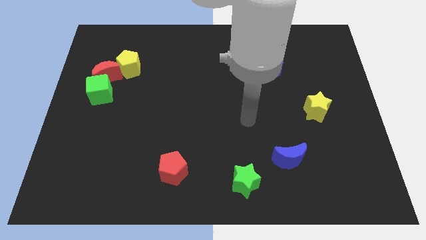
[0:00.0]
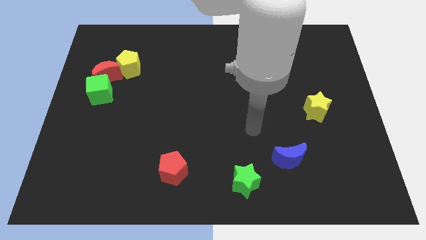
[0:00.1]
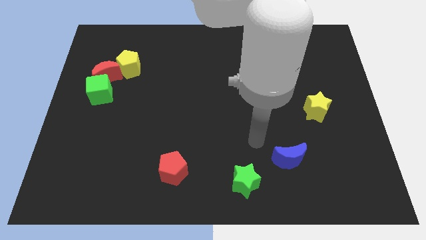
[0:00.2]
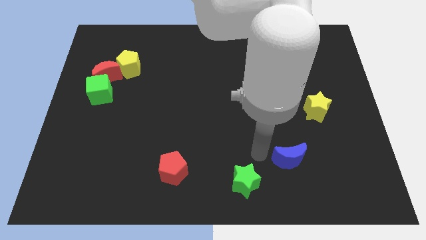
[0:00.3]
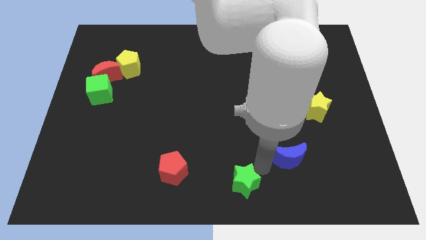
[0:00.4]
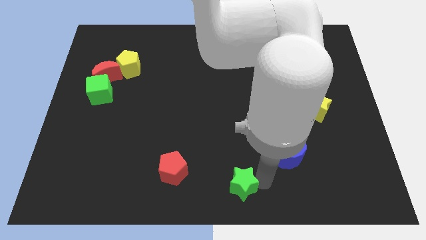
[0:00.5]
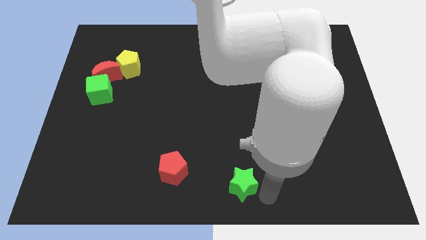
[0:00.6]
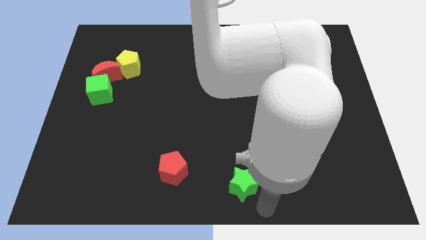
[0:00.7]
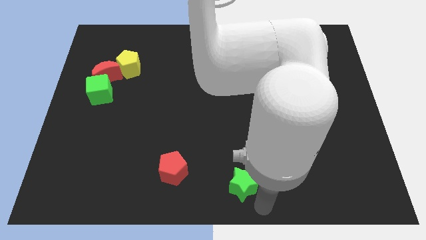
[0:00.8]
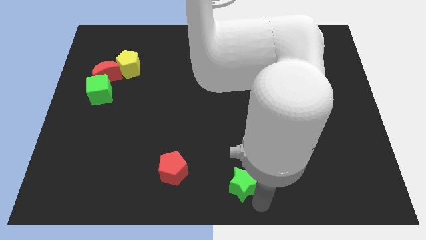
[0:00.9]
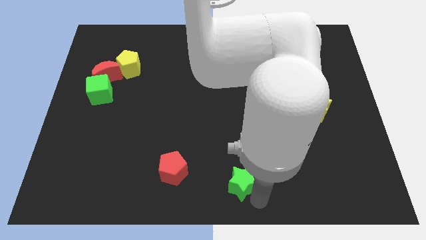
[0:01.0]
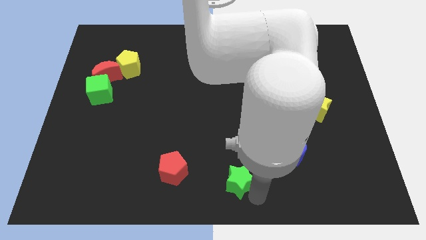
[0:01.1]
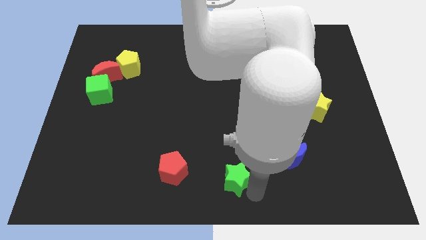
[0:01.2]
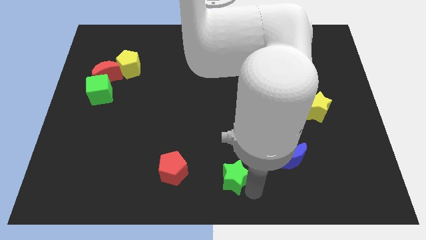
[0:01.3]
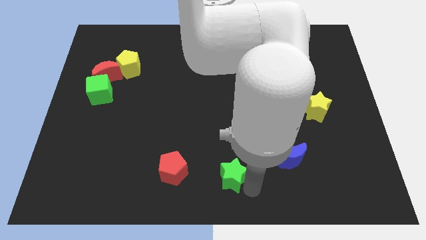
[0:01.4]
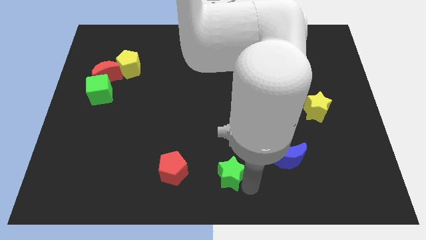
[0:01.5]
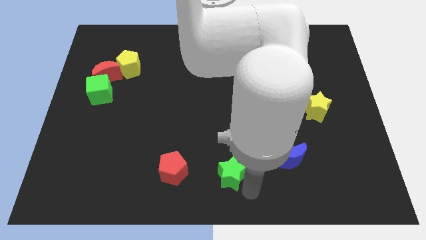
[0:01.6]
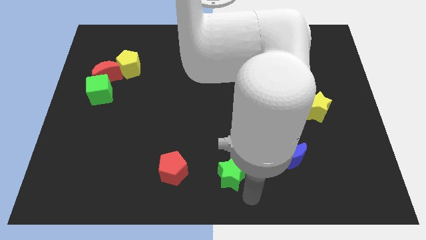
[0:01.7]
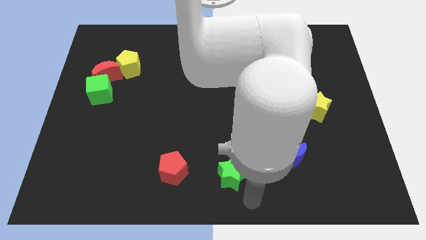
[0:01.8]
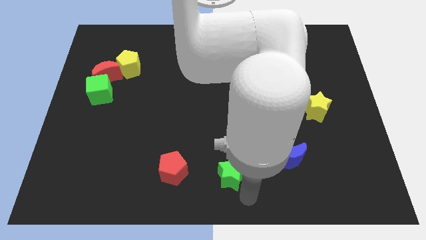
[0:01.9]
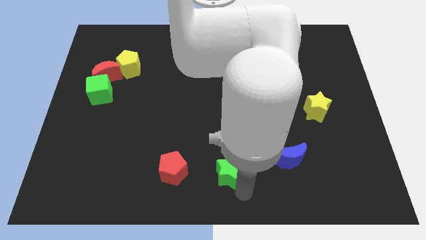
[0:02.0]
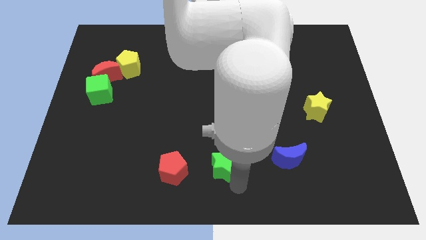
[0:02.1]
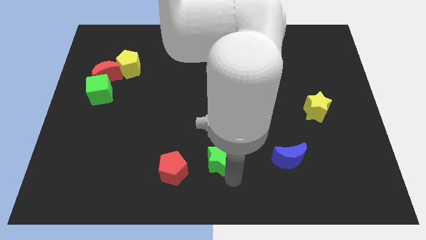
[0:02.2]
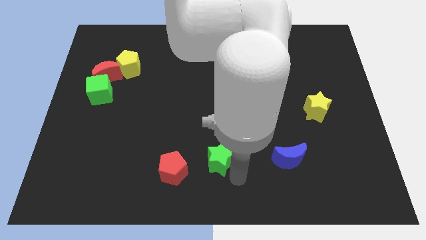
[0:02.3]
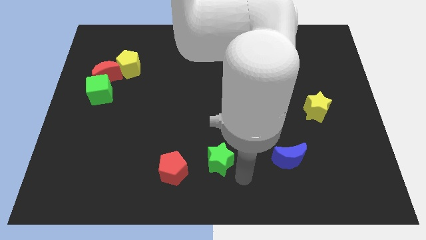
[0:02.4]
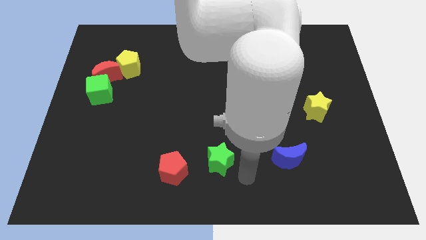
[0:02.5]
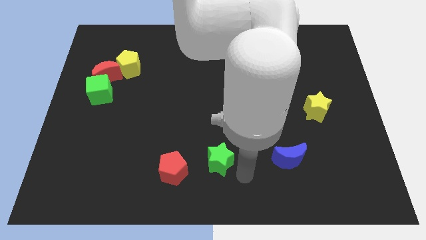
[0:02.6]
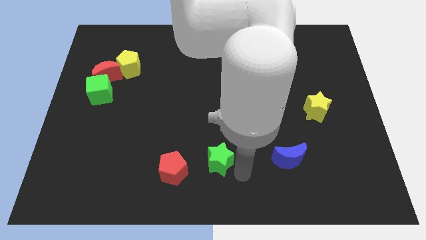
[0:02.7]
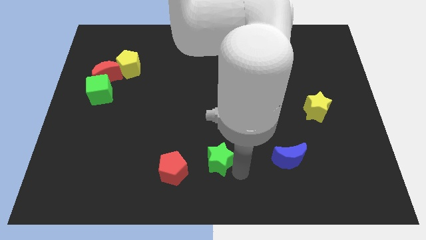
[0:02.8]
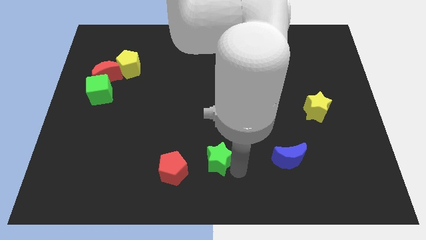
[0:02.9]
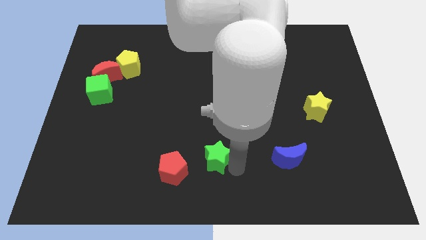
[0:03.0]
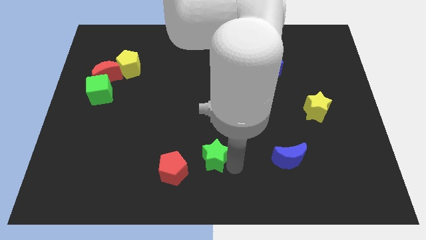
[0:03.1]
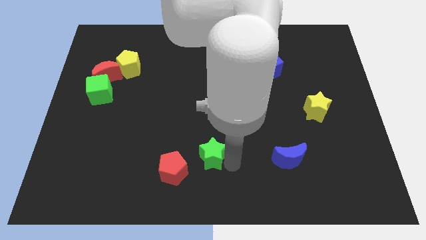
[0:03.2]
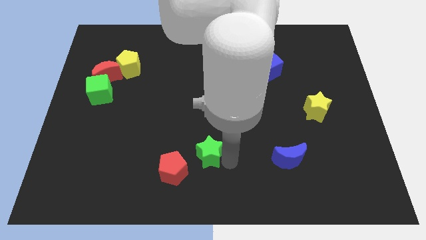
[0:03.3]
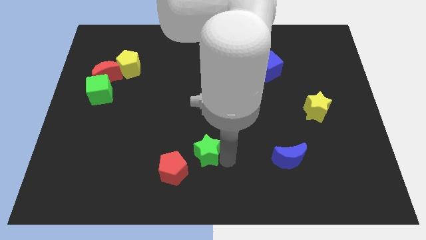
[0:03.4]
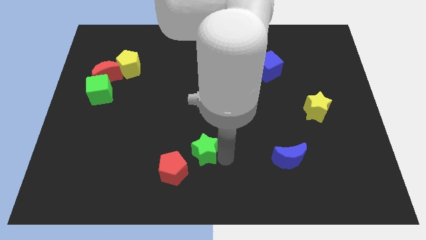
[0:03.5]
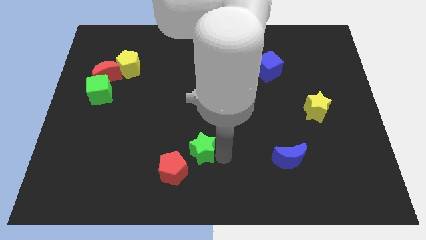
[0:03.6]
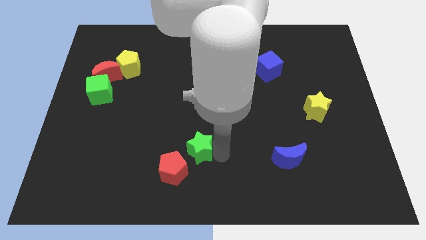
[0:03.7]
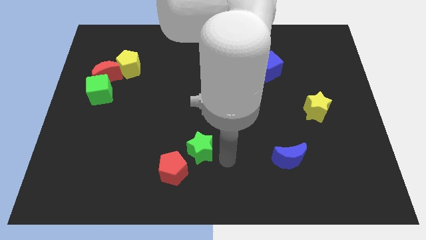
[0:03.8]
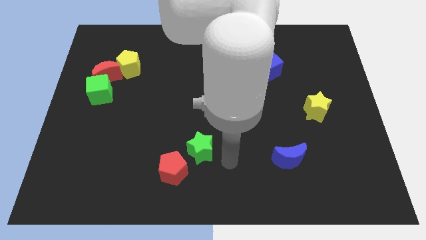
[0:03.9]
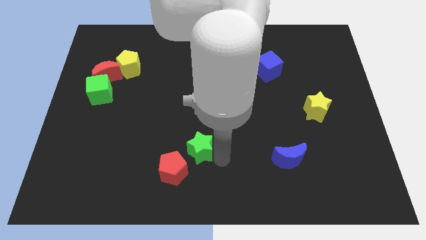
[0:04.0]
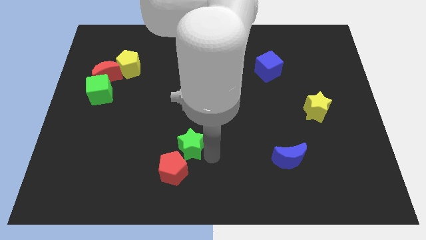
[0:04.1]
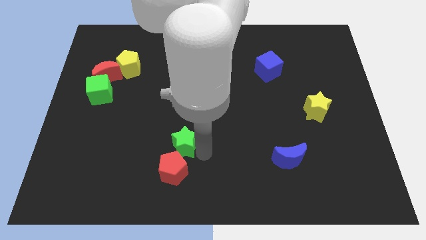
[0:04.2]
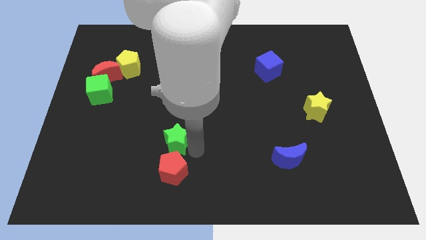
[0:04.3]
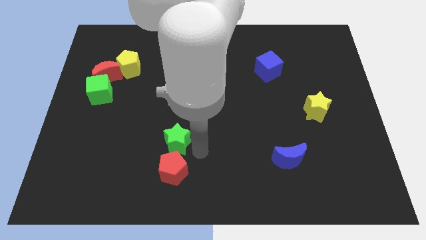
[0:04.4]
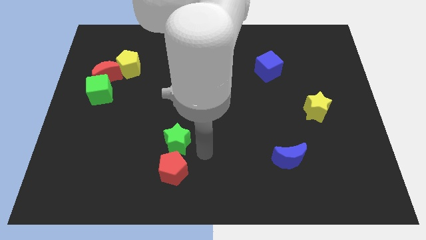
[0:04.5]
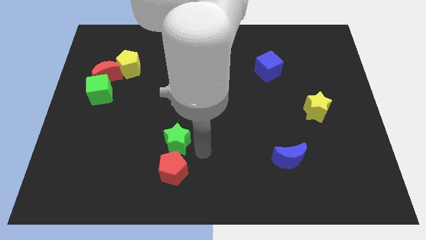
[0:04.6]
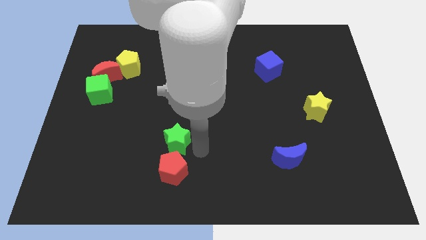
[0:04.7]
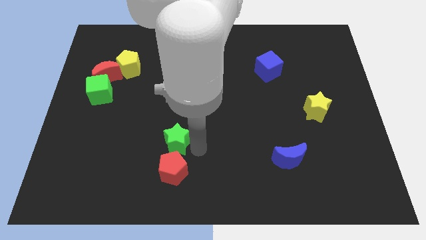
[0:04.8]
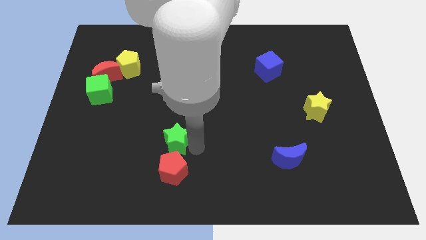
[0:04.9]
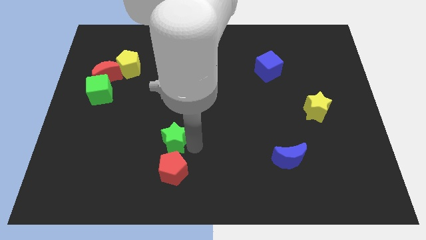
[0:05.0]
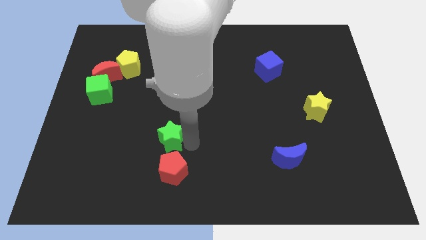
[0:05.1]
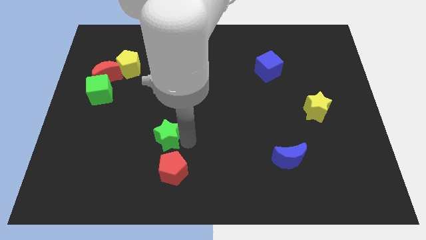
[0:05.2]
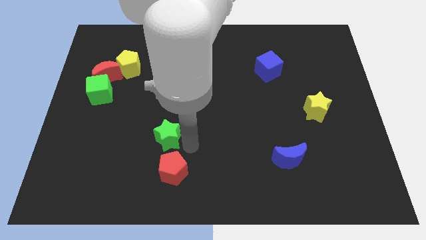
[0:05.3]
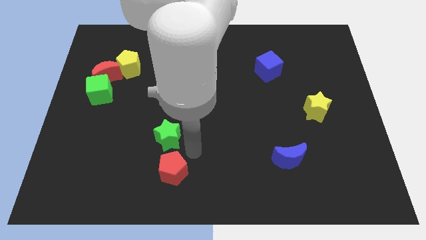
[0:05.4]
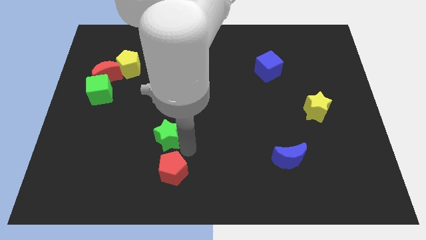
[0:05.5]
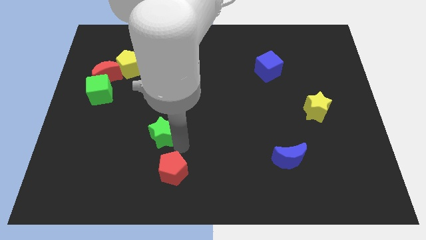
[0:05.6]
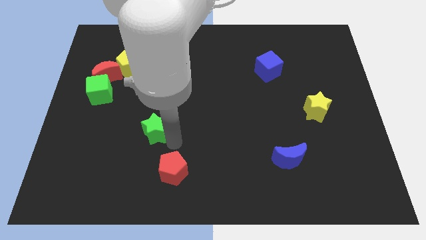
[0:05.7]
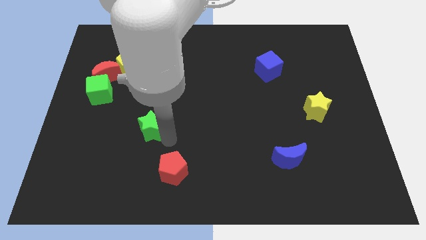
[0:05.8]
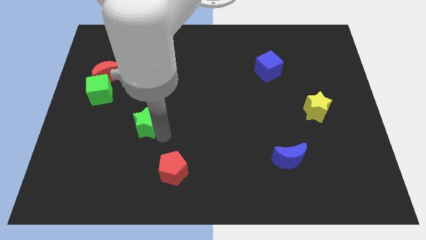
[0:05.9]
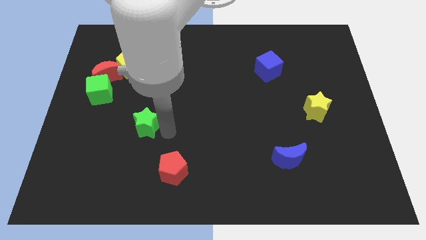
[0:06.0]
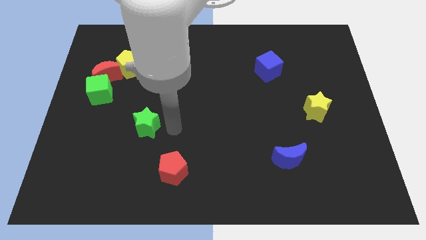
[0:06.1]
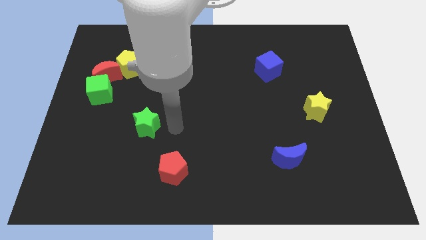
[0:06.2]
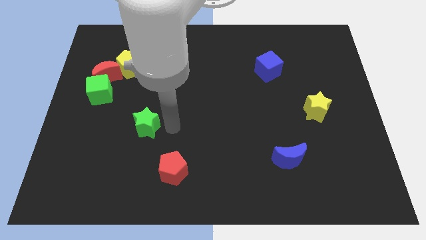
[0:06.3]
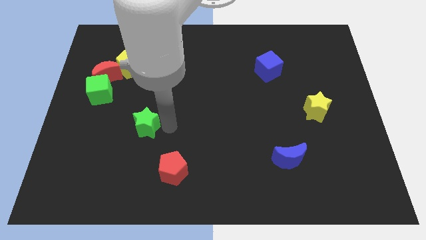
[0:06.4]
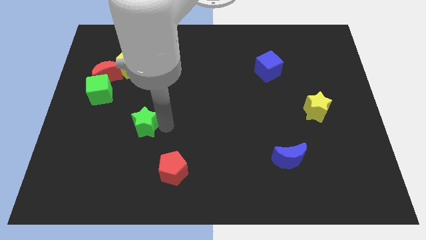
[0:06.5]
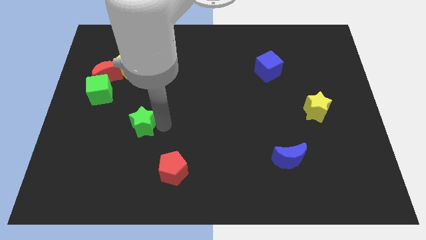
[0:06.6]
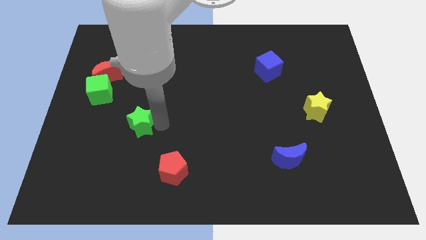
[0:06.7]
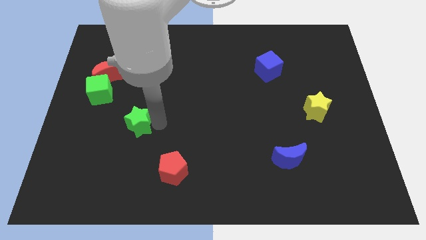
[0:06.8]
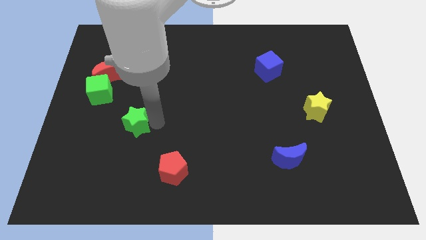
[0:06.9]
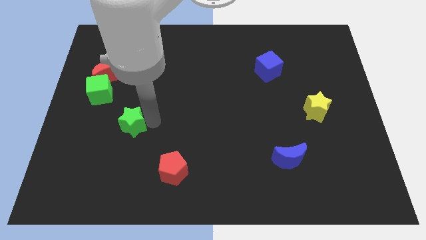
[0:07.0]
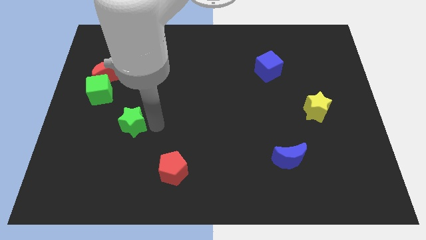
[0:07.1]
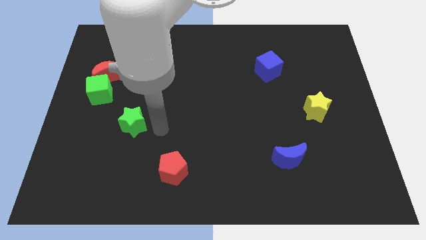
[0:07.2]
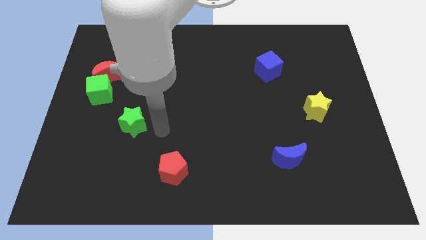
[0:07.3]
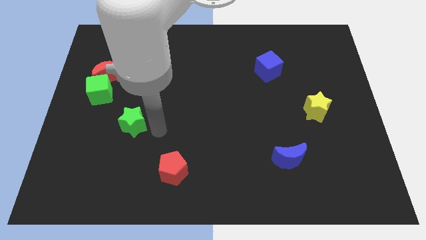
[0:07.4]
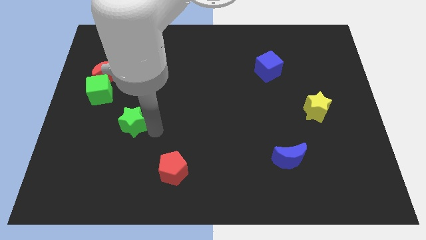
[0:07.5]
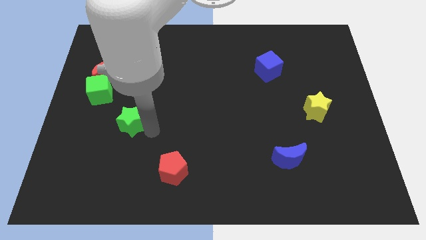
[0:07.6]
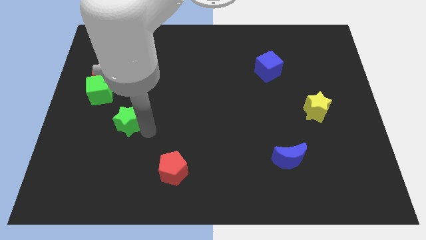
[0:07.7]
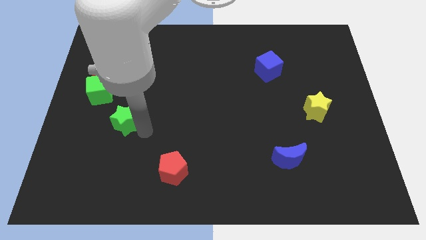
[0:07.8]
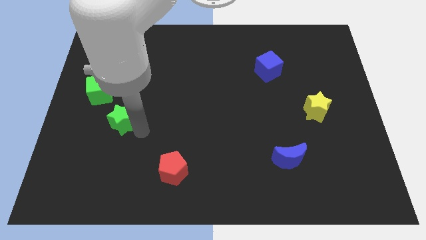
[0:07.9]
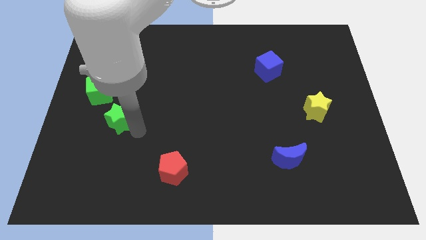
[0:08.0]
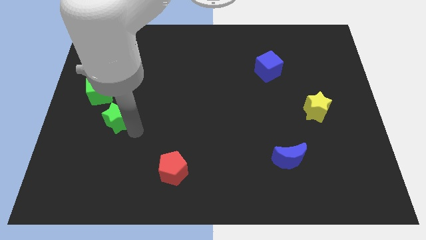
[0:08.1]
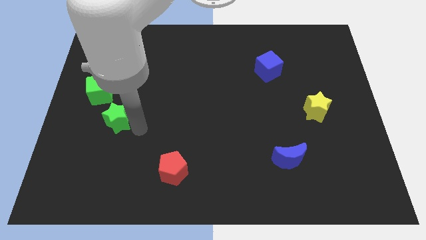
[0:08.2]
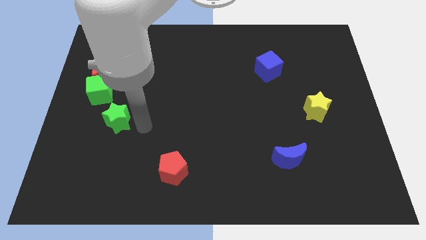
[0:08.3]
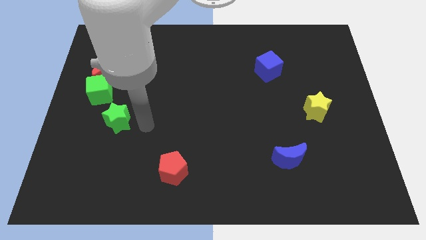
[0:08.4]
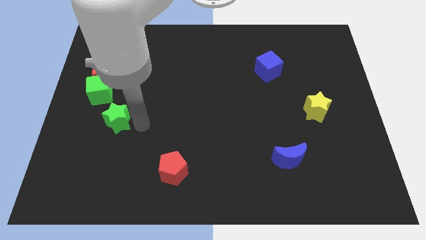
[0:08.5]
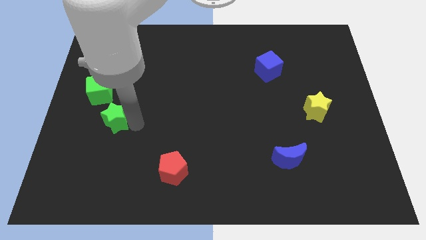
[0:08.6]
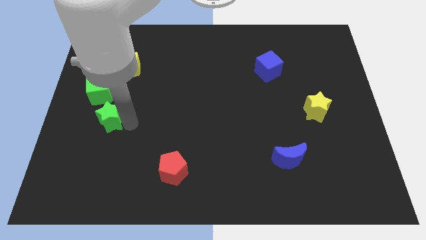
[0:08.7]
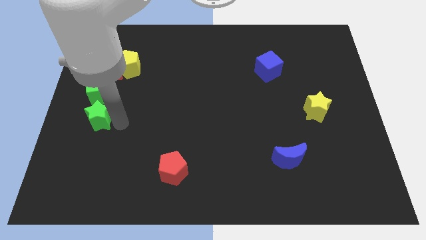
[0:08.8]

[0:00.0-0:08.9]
push the green star to the center left
